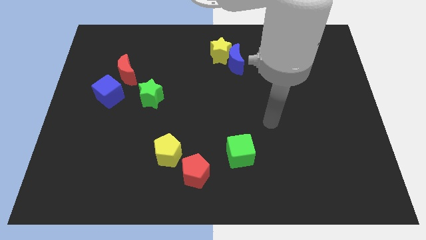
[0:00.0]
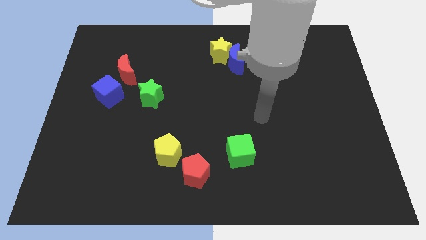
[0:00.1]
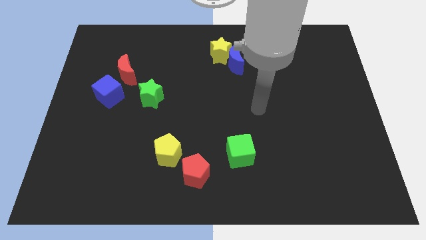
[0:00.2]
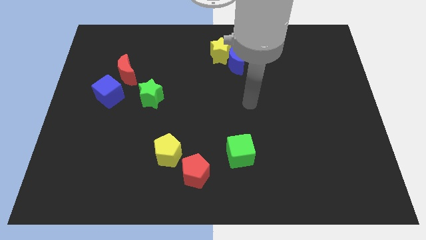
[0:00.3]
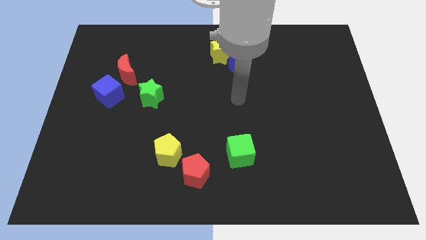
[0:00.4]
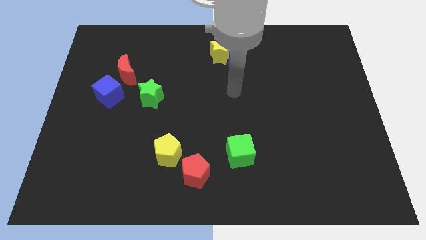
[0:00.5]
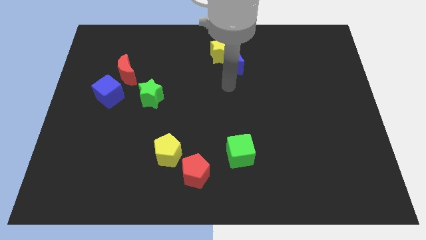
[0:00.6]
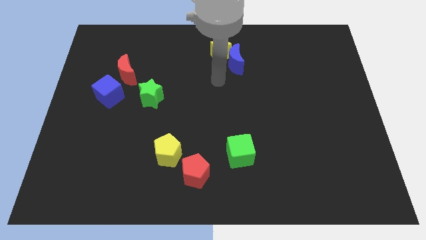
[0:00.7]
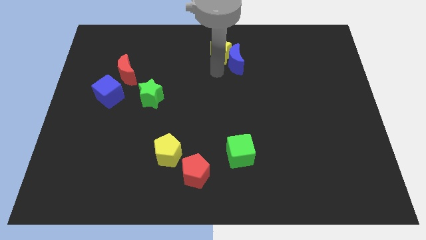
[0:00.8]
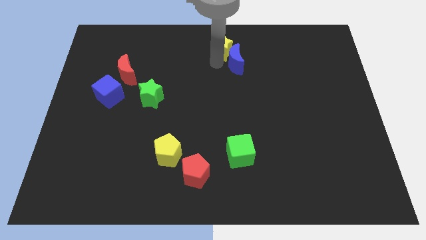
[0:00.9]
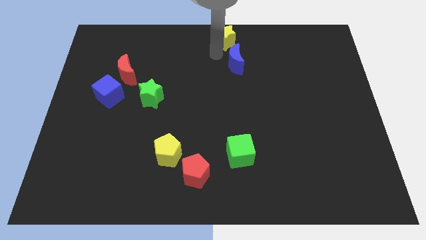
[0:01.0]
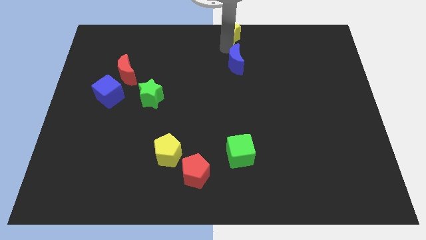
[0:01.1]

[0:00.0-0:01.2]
move the blue moon away from the yellow star

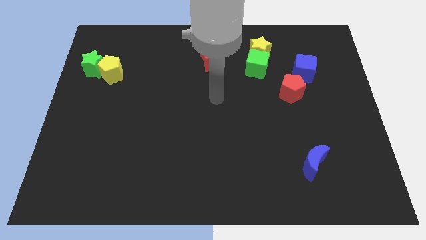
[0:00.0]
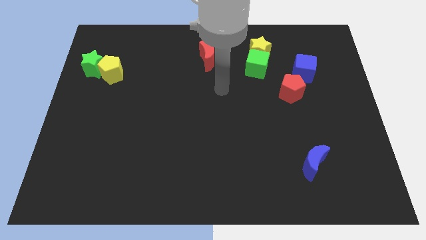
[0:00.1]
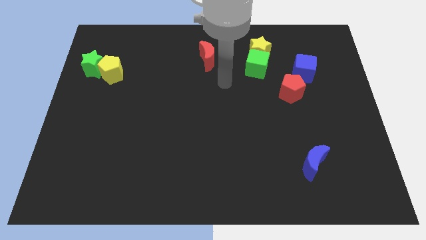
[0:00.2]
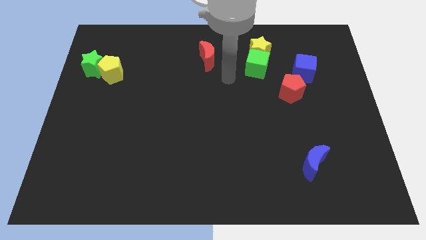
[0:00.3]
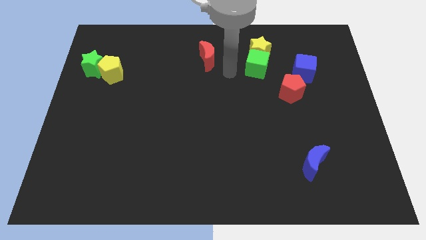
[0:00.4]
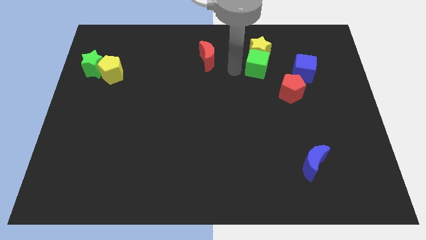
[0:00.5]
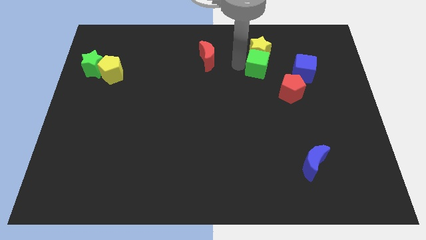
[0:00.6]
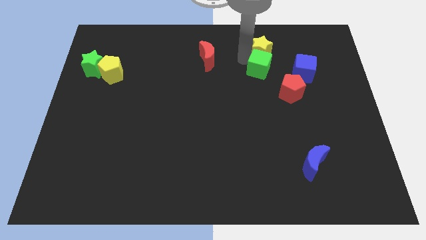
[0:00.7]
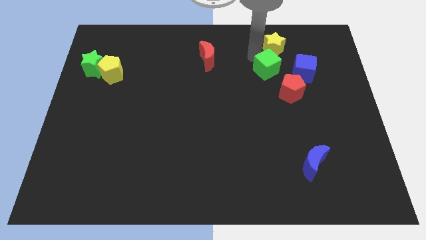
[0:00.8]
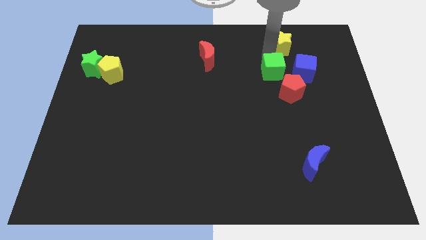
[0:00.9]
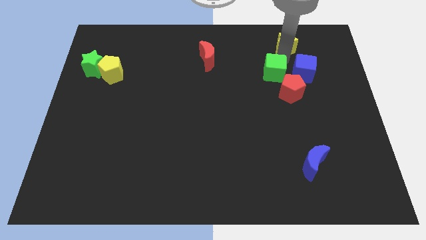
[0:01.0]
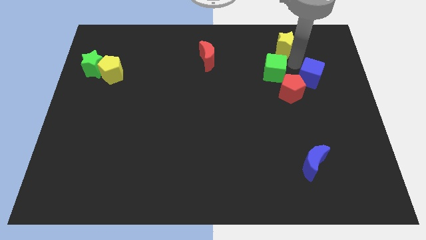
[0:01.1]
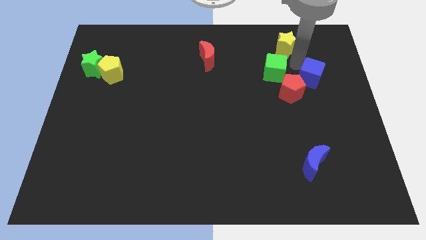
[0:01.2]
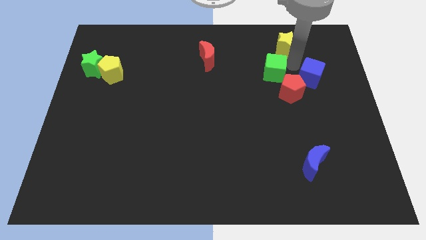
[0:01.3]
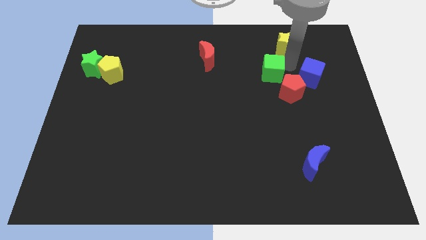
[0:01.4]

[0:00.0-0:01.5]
separate the green cube from the yellow star

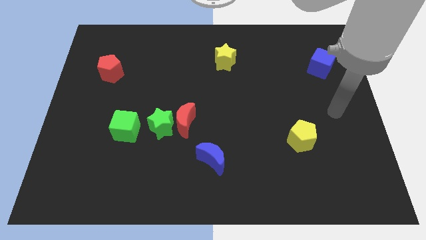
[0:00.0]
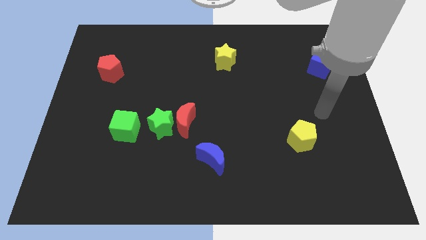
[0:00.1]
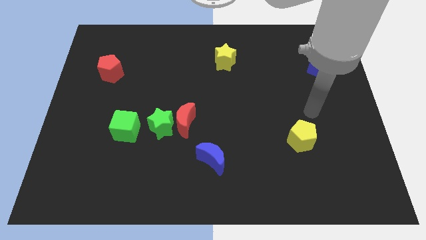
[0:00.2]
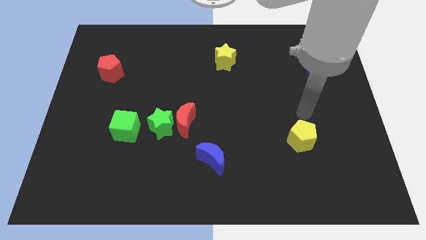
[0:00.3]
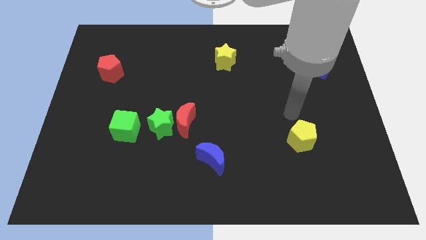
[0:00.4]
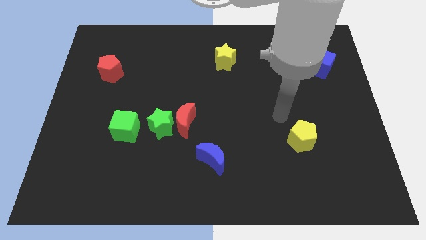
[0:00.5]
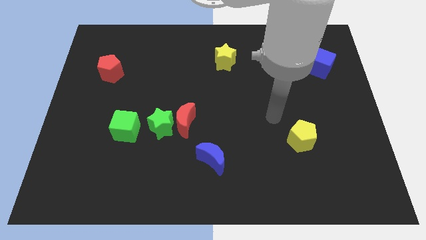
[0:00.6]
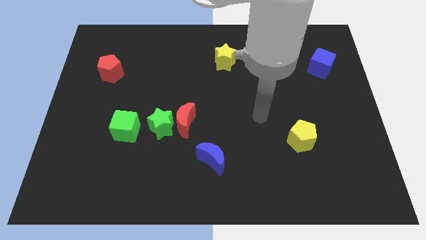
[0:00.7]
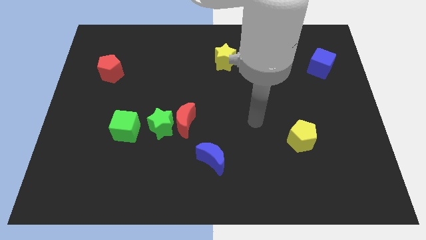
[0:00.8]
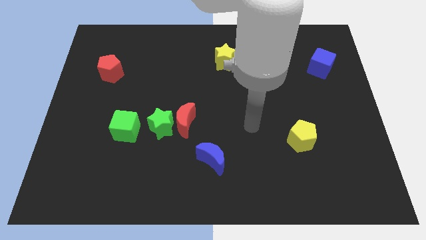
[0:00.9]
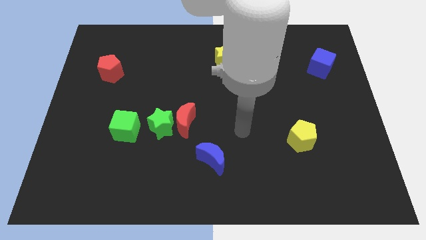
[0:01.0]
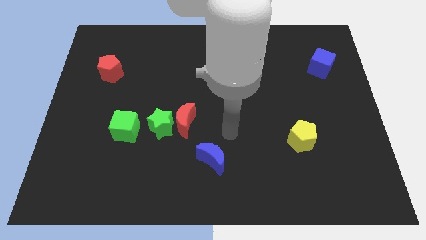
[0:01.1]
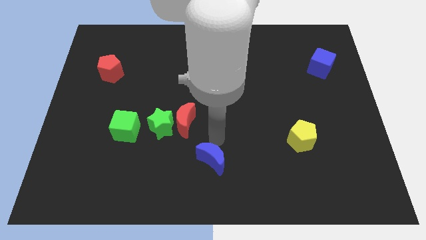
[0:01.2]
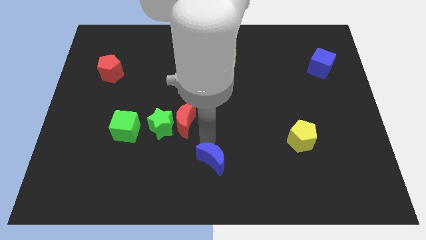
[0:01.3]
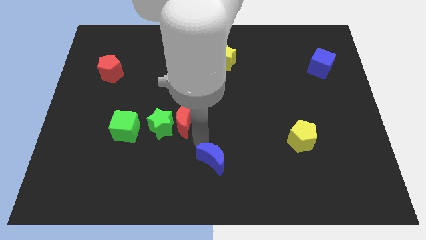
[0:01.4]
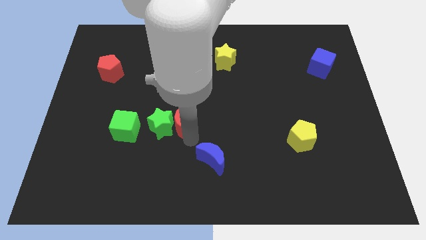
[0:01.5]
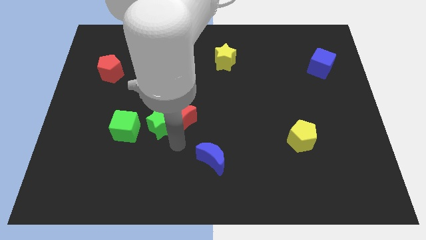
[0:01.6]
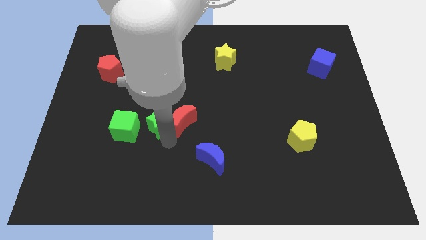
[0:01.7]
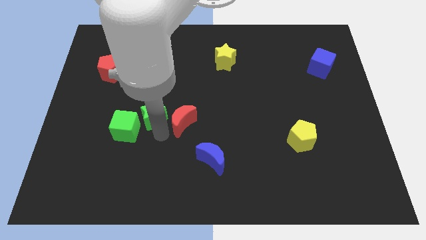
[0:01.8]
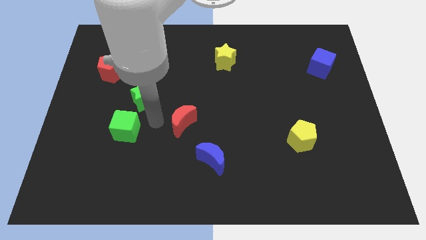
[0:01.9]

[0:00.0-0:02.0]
move the red moon away from the green star

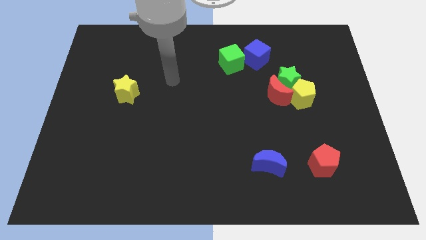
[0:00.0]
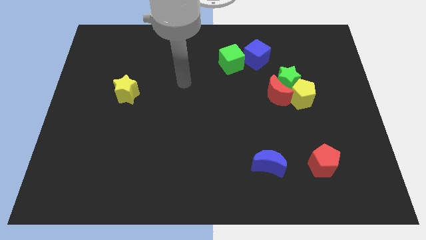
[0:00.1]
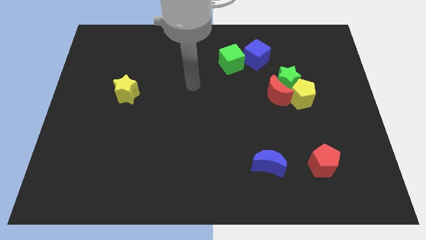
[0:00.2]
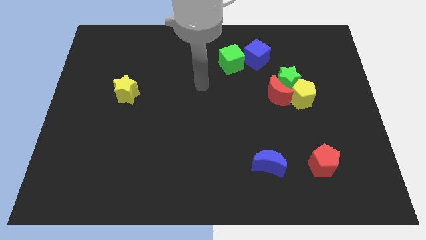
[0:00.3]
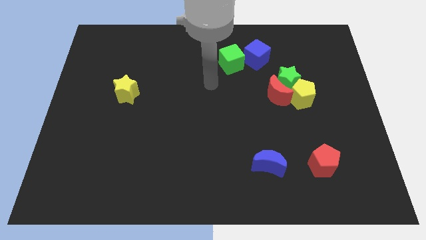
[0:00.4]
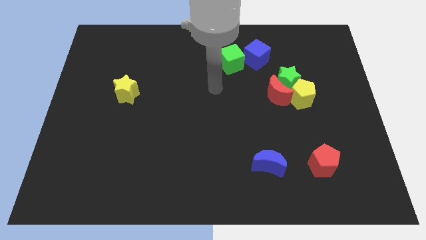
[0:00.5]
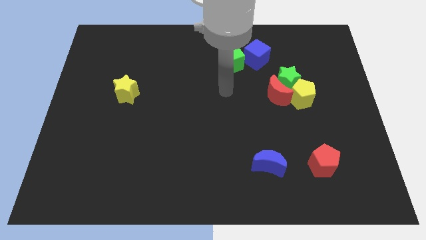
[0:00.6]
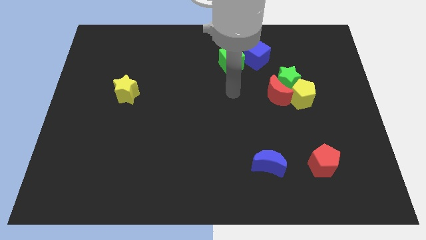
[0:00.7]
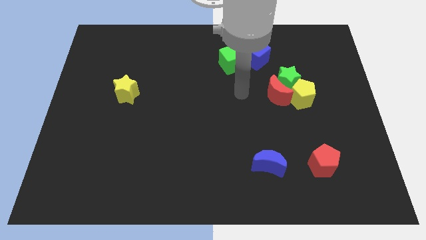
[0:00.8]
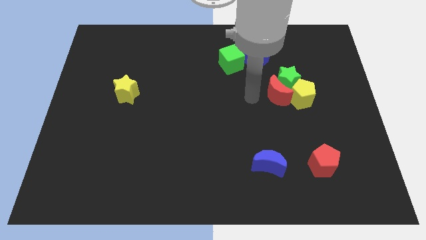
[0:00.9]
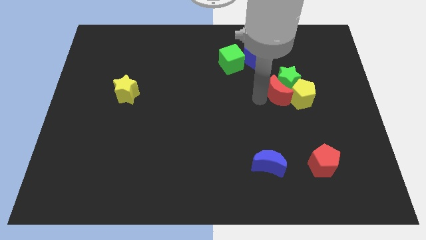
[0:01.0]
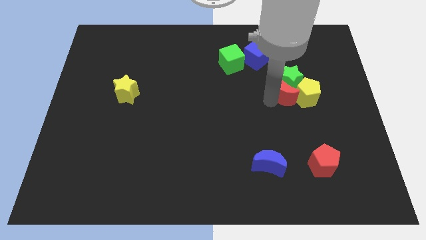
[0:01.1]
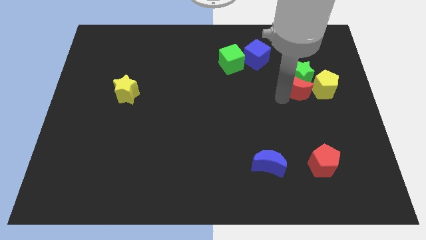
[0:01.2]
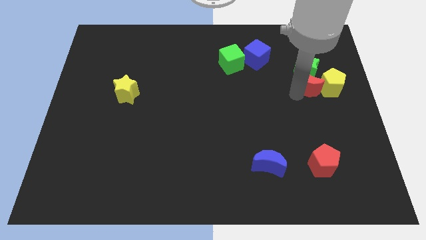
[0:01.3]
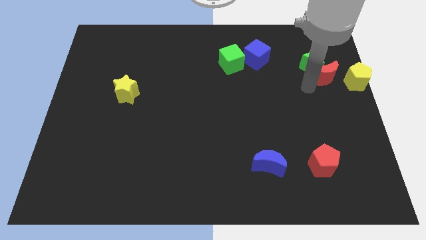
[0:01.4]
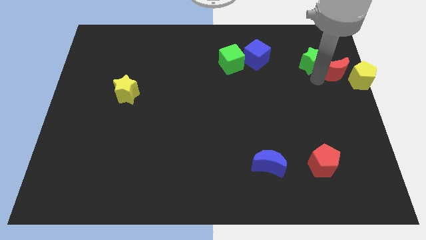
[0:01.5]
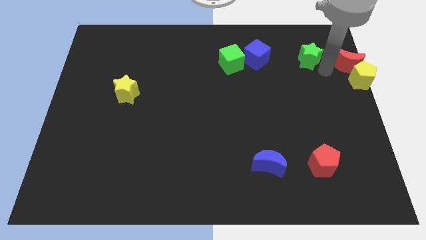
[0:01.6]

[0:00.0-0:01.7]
pull the green star apart from the red moon and yellow pentagon

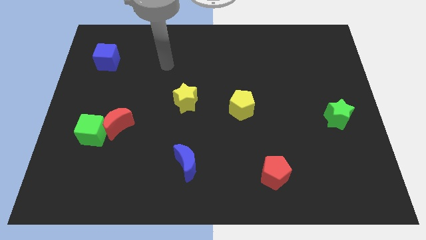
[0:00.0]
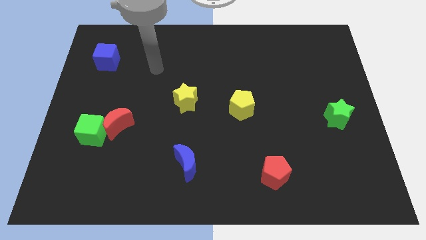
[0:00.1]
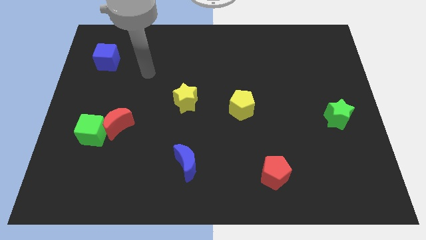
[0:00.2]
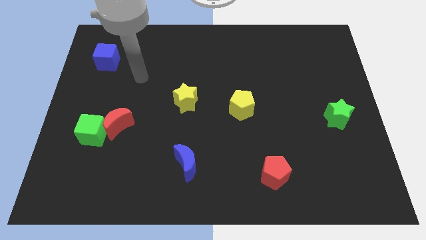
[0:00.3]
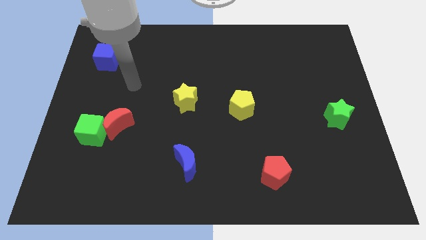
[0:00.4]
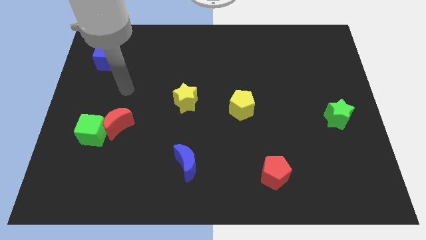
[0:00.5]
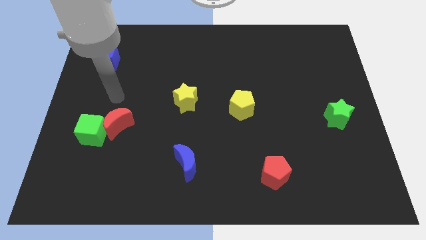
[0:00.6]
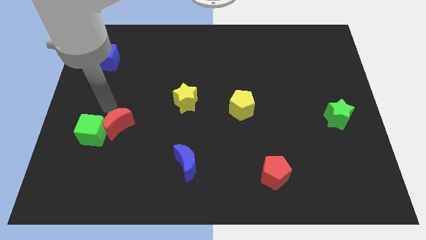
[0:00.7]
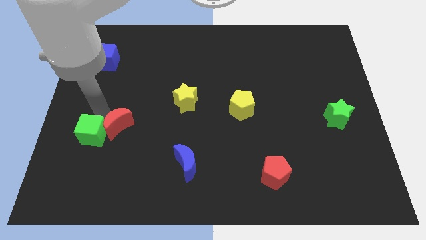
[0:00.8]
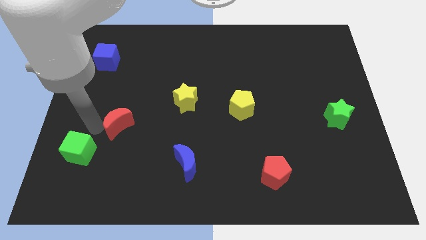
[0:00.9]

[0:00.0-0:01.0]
pull the red moon apart from the green cube

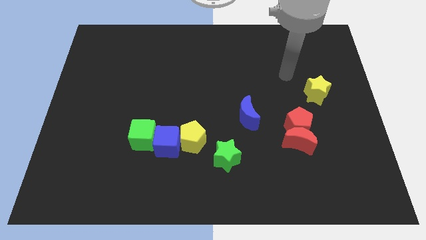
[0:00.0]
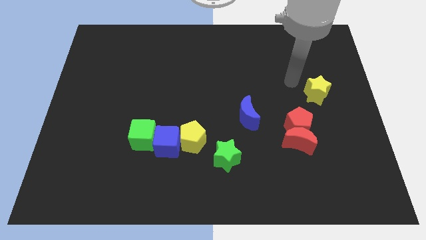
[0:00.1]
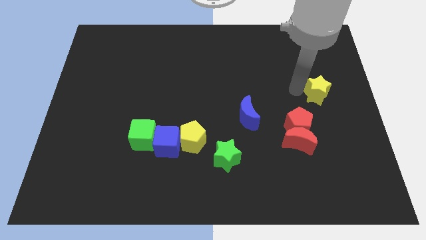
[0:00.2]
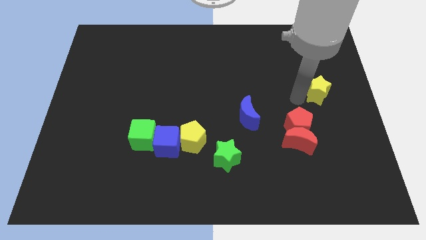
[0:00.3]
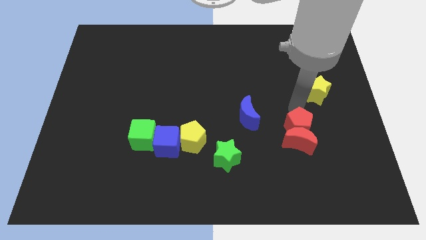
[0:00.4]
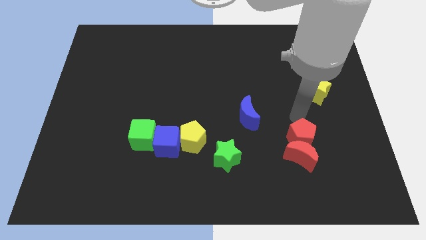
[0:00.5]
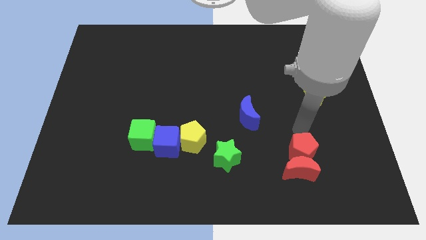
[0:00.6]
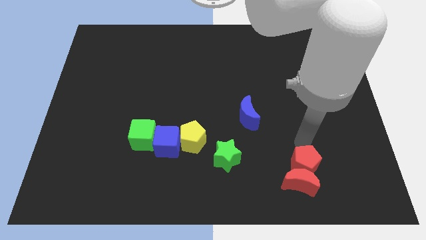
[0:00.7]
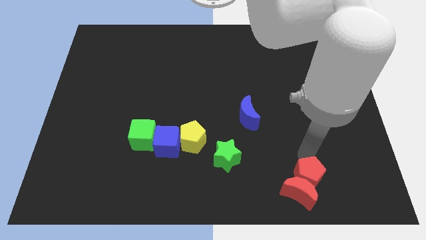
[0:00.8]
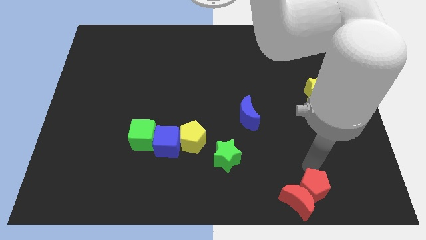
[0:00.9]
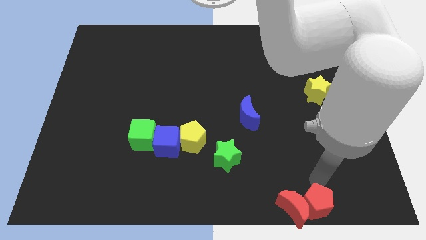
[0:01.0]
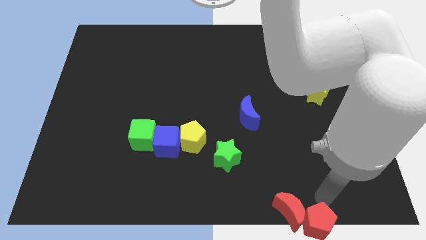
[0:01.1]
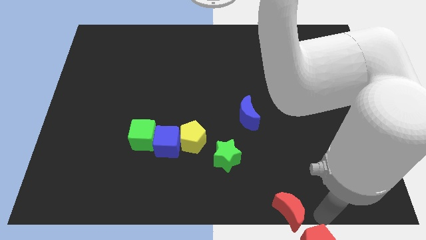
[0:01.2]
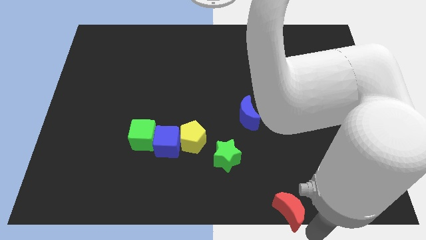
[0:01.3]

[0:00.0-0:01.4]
pull the red moon apart from the red pentagon

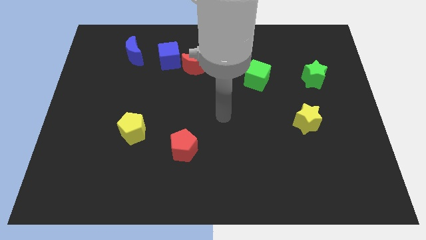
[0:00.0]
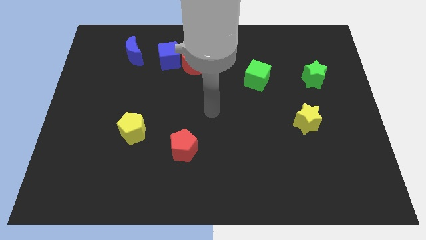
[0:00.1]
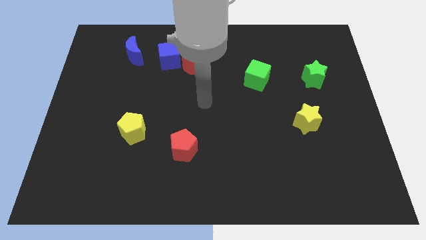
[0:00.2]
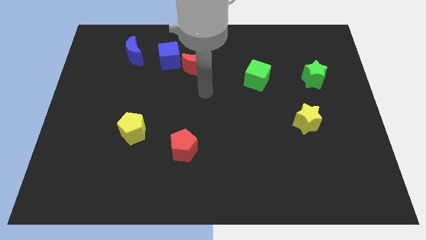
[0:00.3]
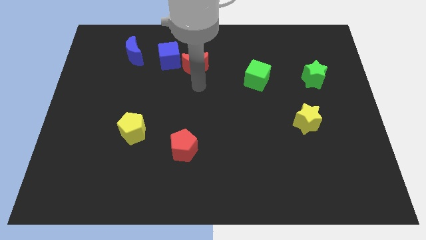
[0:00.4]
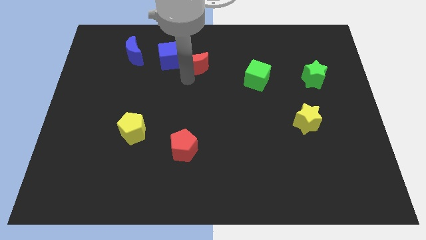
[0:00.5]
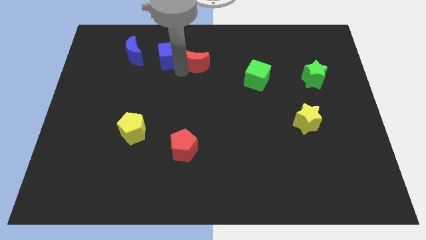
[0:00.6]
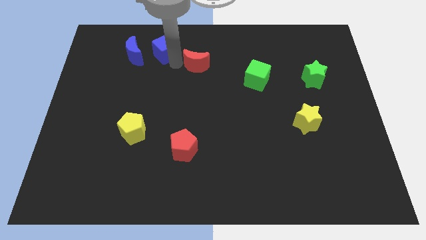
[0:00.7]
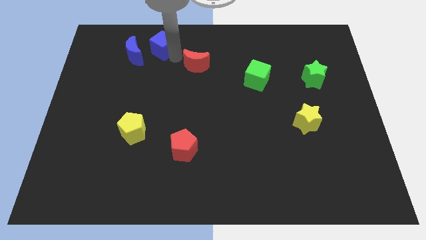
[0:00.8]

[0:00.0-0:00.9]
move the red moon away from the blue cube
